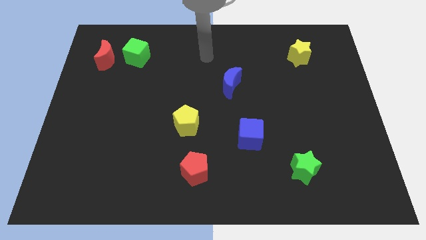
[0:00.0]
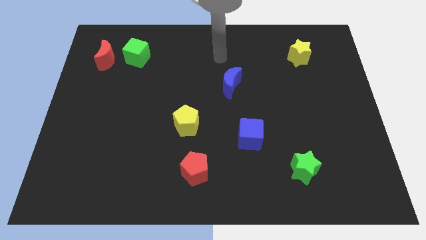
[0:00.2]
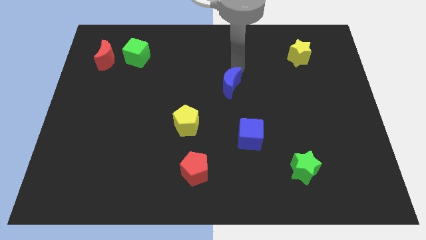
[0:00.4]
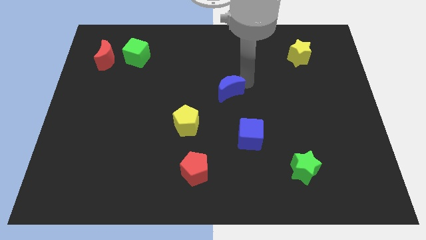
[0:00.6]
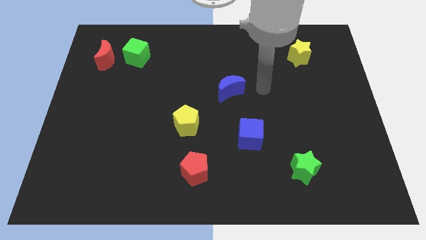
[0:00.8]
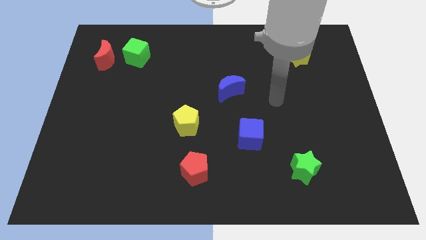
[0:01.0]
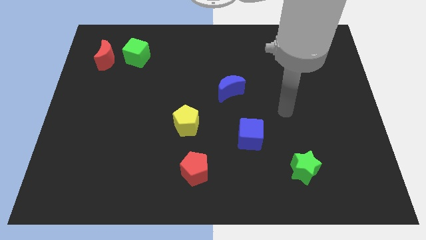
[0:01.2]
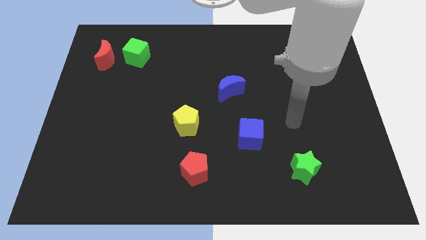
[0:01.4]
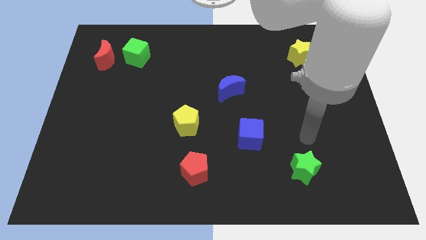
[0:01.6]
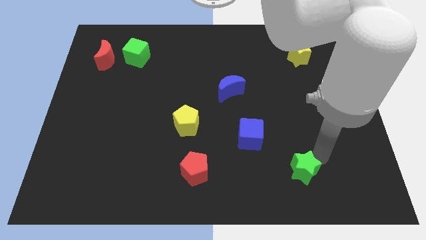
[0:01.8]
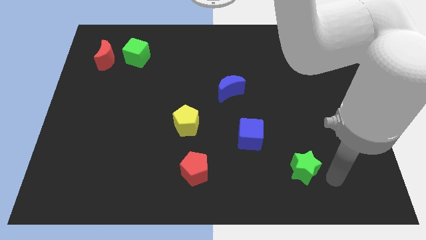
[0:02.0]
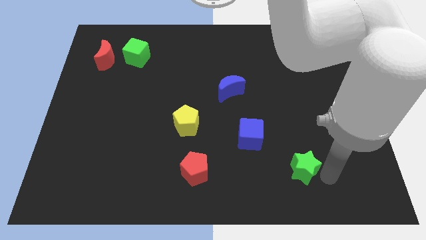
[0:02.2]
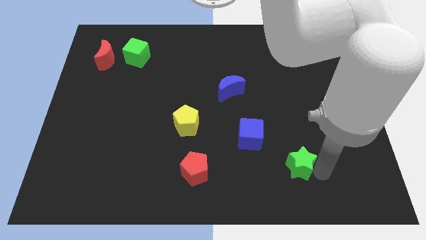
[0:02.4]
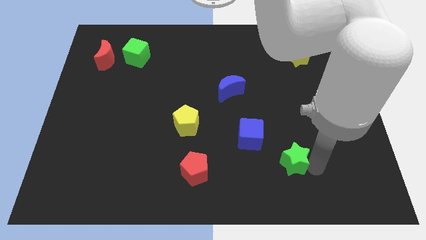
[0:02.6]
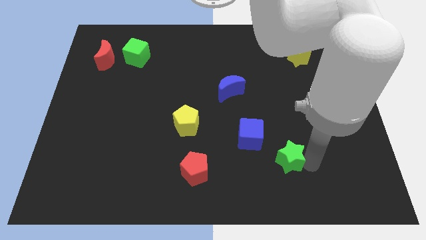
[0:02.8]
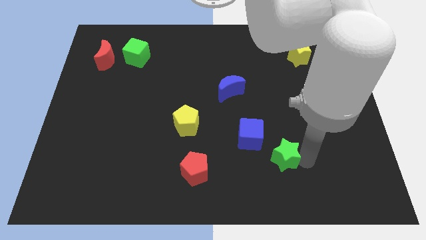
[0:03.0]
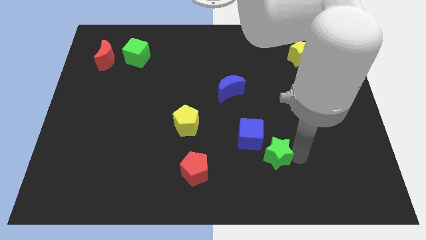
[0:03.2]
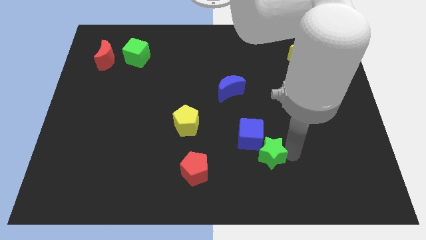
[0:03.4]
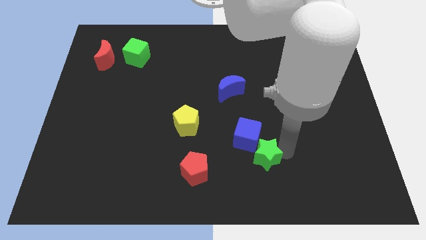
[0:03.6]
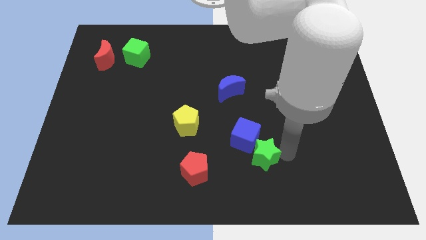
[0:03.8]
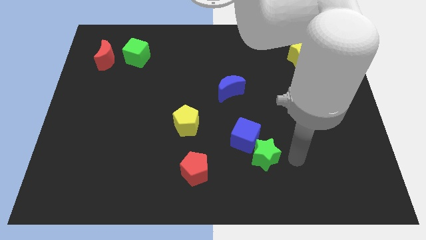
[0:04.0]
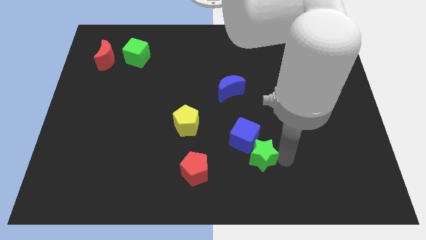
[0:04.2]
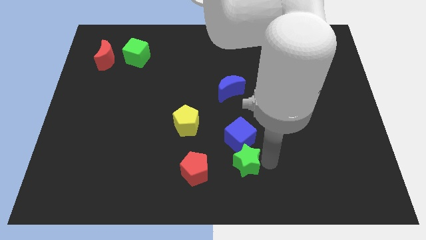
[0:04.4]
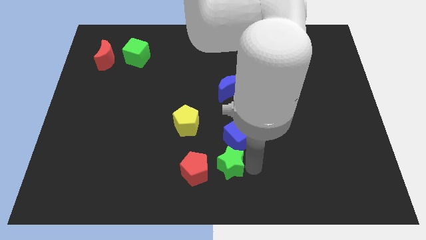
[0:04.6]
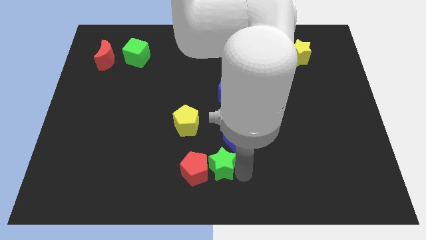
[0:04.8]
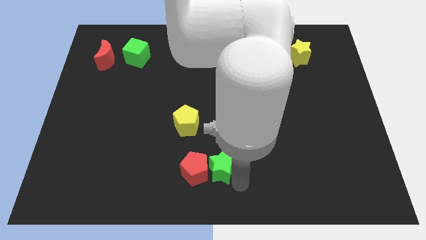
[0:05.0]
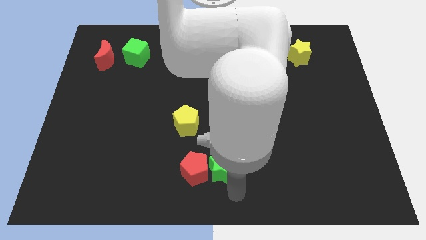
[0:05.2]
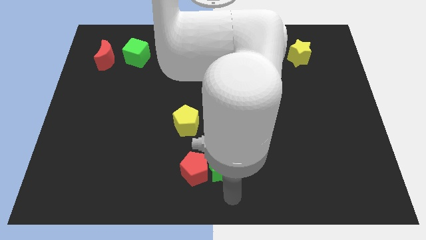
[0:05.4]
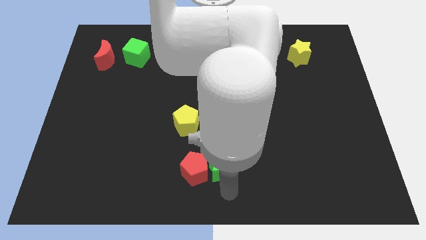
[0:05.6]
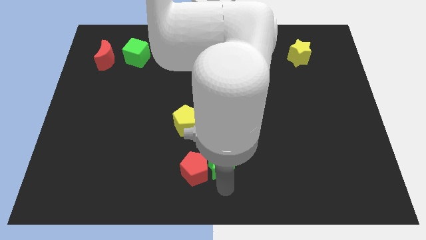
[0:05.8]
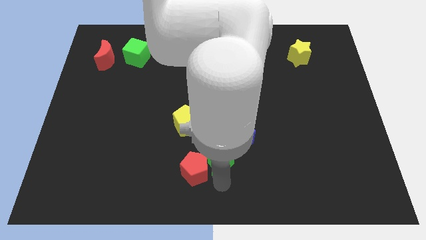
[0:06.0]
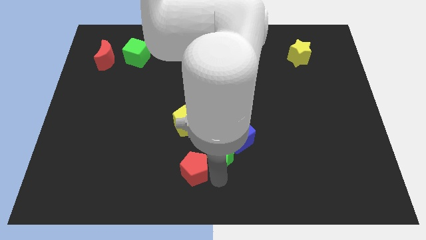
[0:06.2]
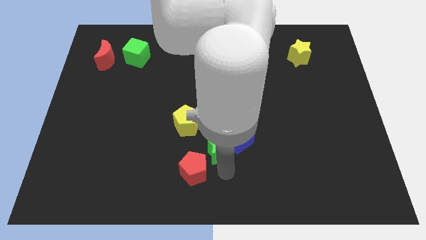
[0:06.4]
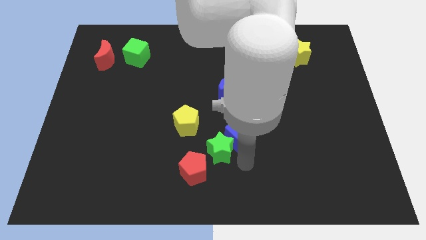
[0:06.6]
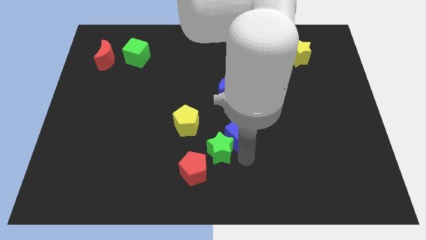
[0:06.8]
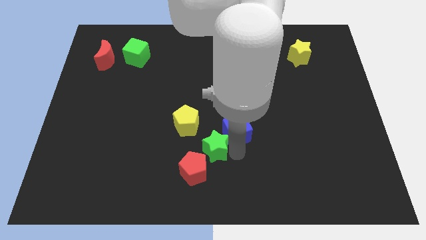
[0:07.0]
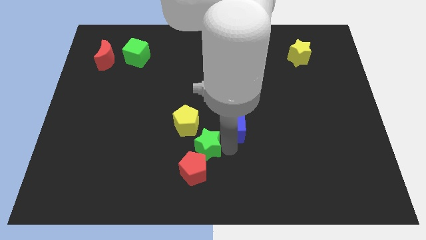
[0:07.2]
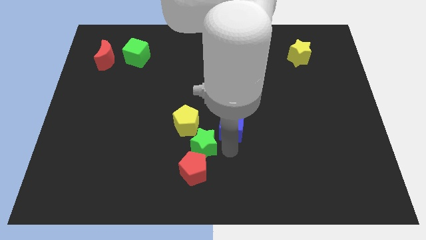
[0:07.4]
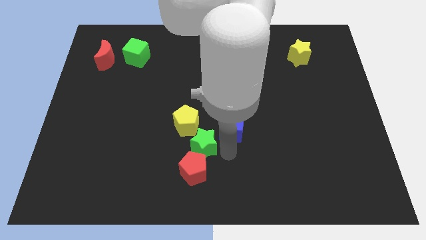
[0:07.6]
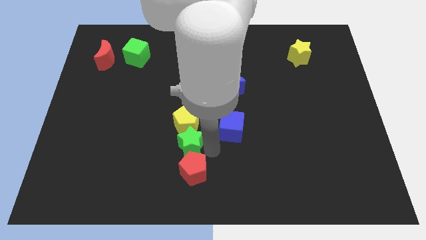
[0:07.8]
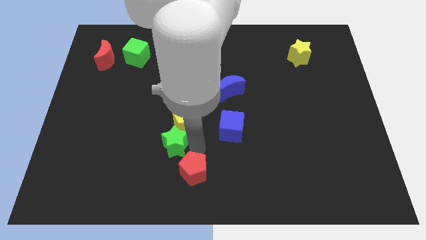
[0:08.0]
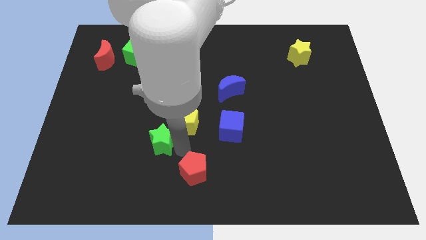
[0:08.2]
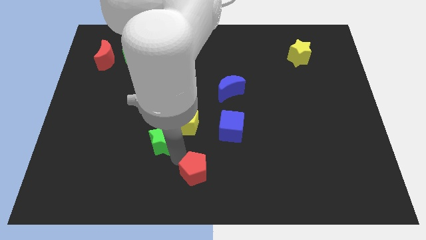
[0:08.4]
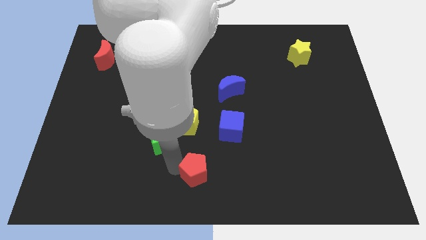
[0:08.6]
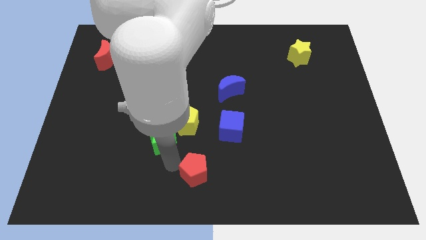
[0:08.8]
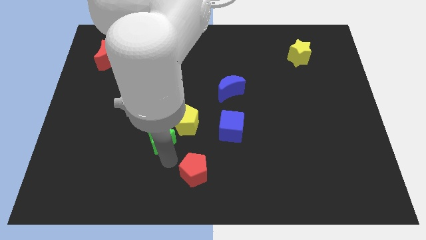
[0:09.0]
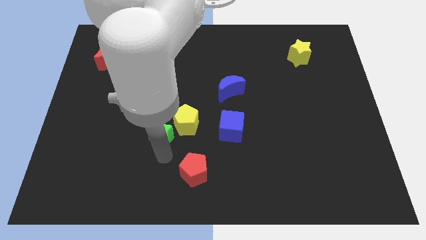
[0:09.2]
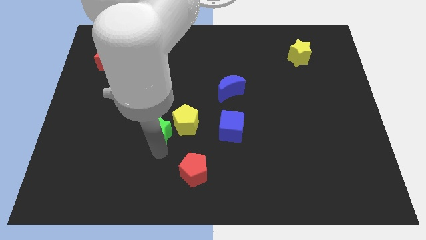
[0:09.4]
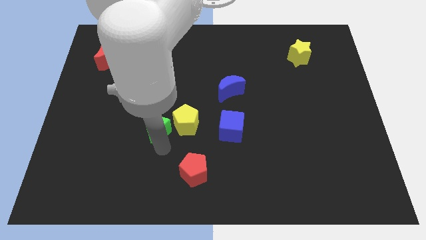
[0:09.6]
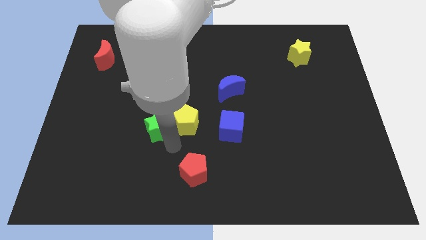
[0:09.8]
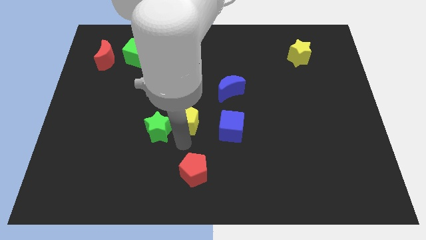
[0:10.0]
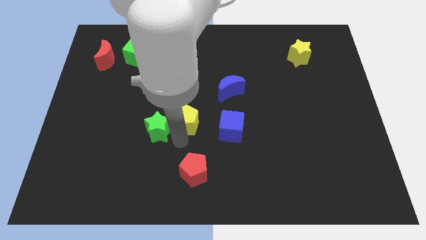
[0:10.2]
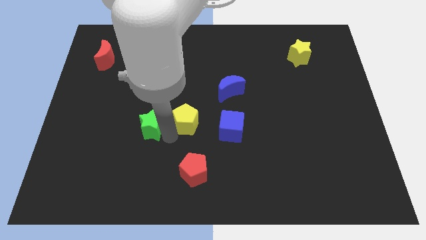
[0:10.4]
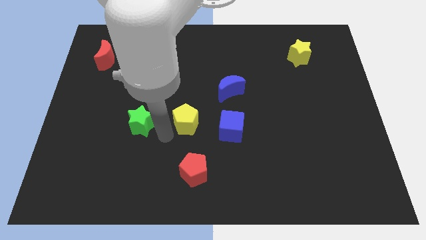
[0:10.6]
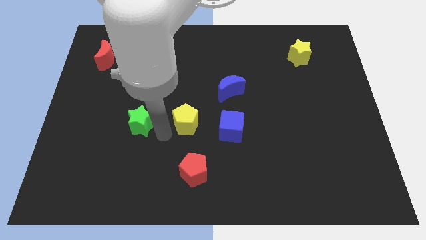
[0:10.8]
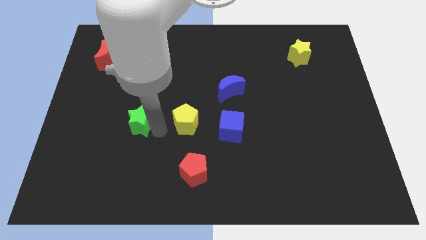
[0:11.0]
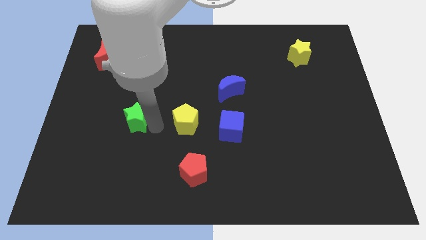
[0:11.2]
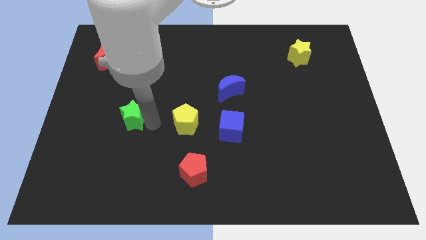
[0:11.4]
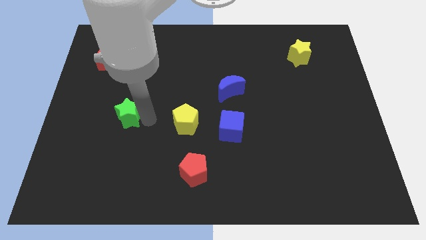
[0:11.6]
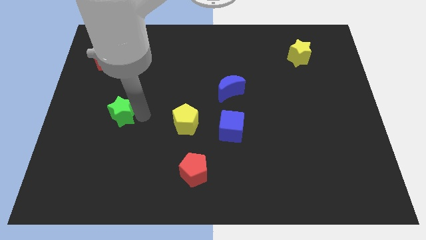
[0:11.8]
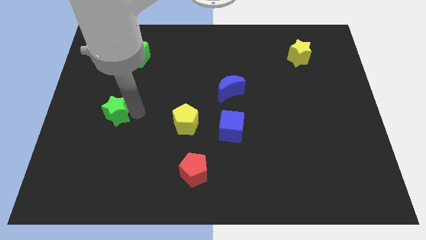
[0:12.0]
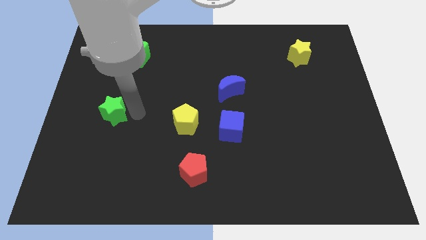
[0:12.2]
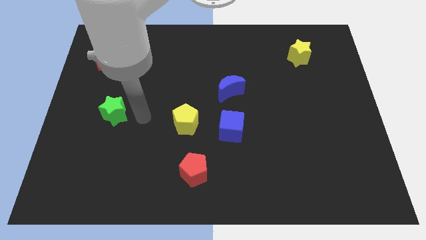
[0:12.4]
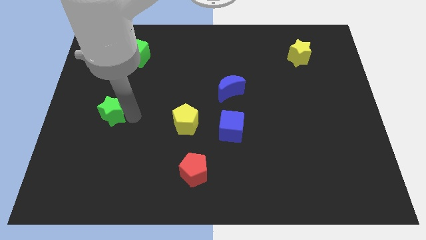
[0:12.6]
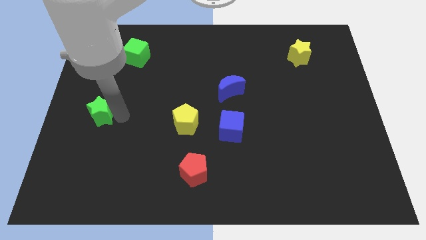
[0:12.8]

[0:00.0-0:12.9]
put the green star to the center left

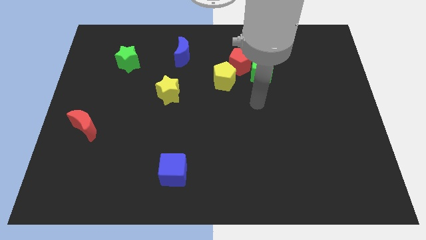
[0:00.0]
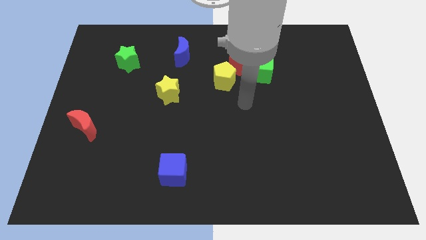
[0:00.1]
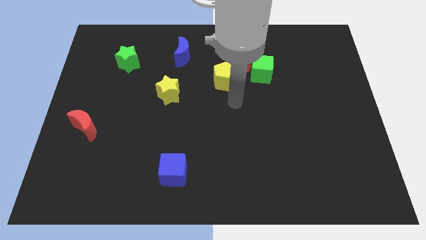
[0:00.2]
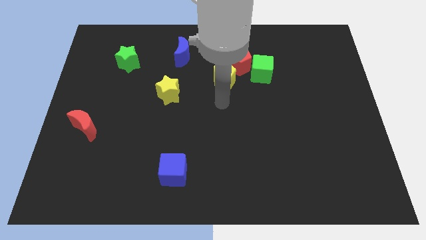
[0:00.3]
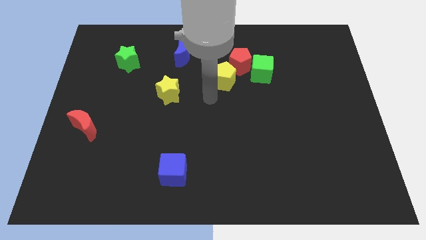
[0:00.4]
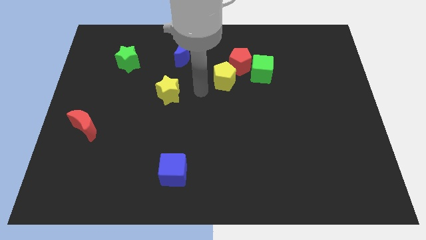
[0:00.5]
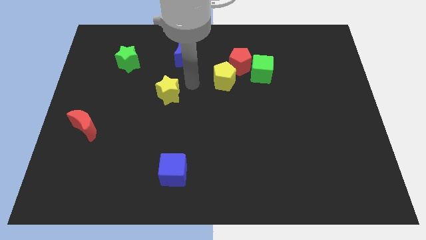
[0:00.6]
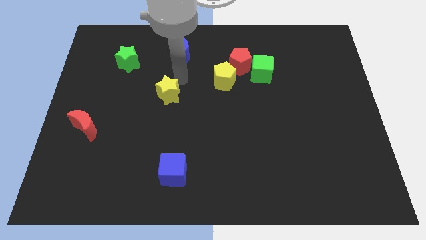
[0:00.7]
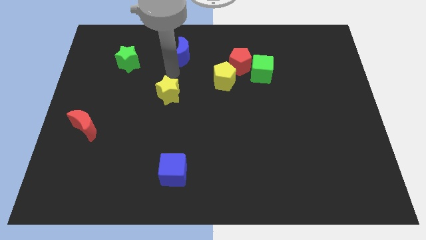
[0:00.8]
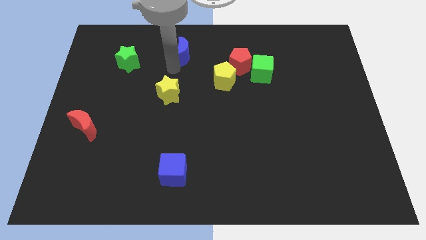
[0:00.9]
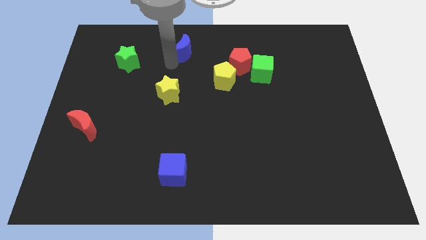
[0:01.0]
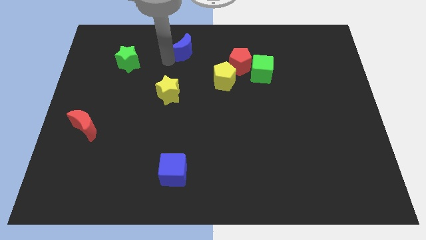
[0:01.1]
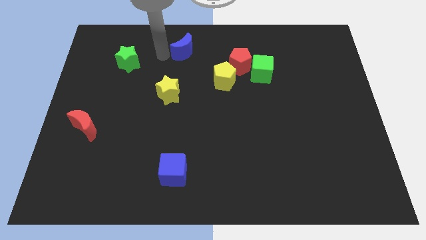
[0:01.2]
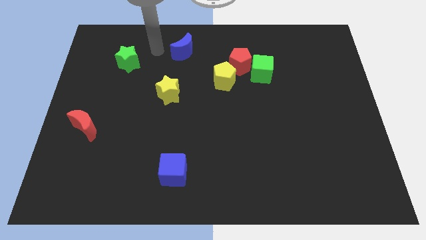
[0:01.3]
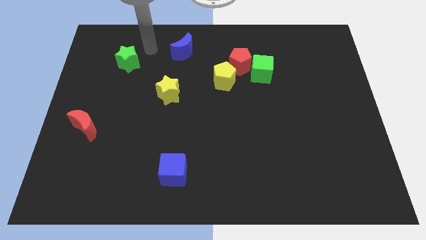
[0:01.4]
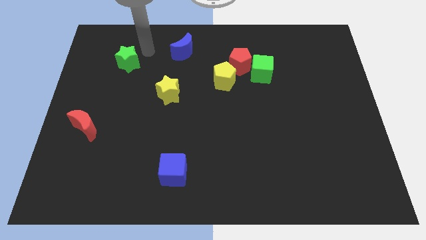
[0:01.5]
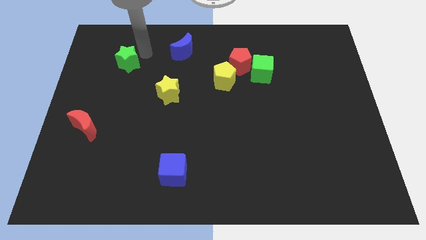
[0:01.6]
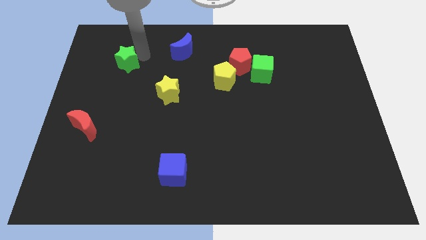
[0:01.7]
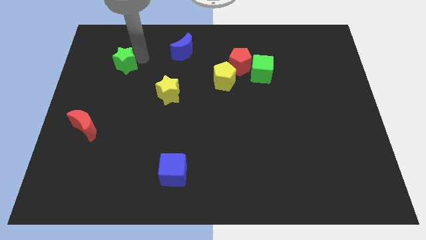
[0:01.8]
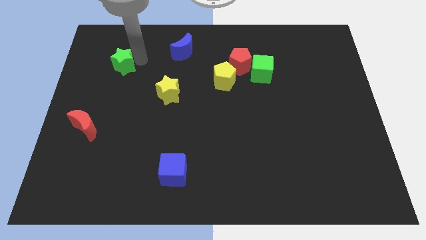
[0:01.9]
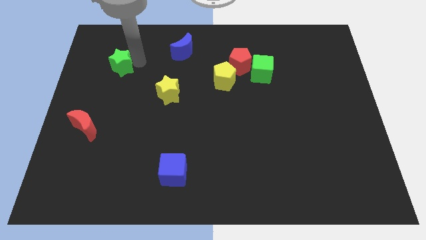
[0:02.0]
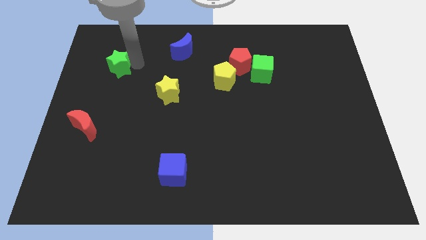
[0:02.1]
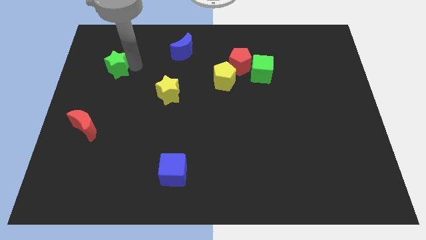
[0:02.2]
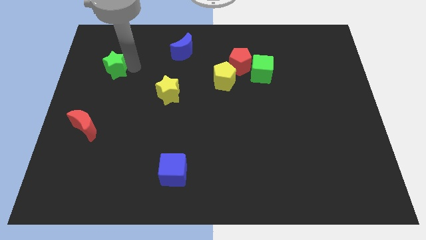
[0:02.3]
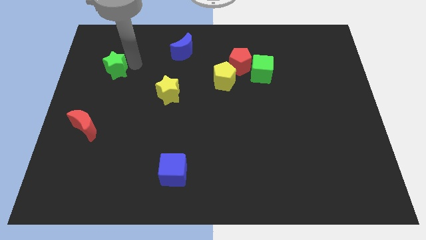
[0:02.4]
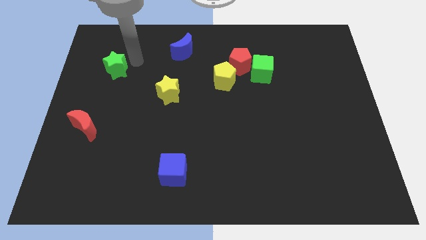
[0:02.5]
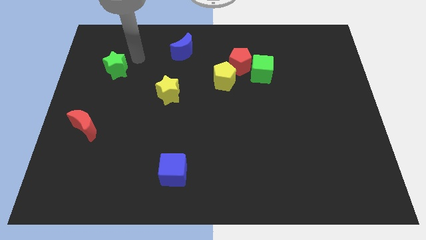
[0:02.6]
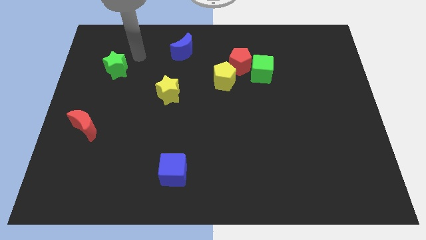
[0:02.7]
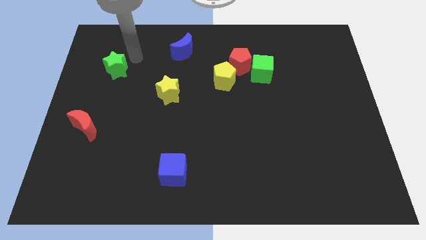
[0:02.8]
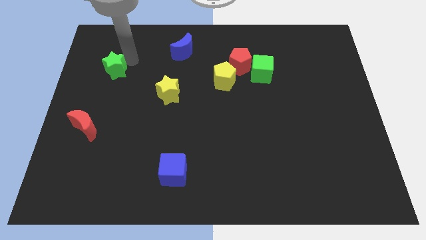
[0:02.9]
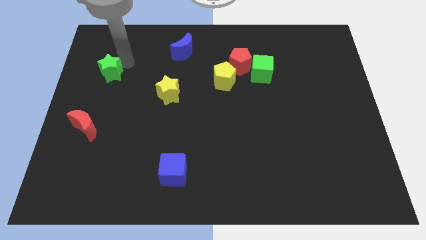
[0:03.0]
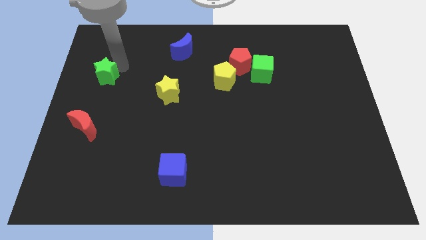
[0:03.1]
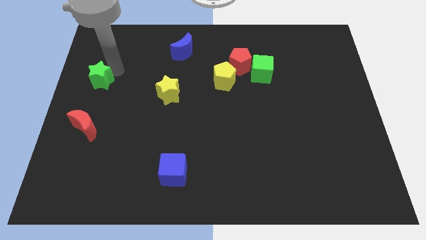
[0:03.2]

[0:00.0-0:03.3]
move the green star to the center left
